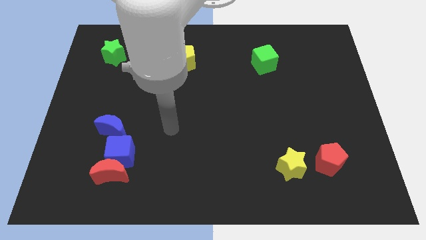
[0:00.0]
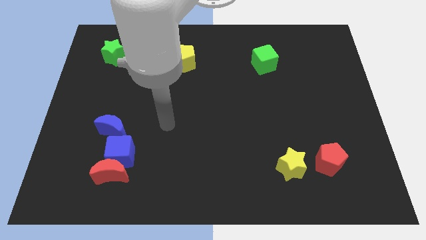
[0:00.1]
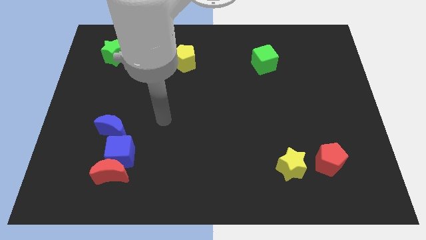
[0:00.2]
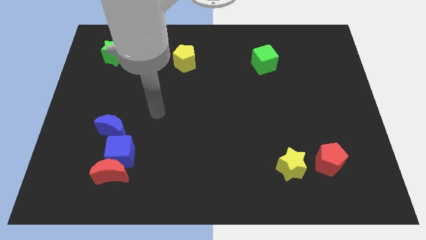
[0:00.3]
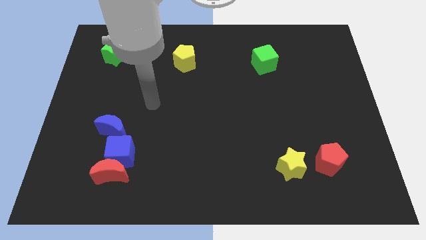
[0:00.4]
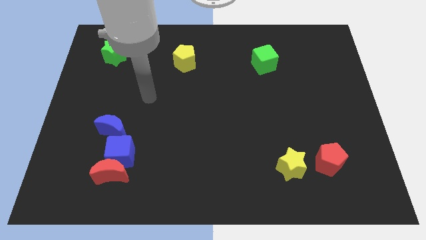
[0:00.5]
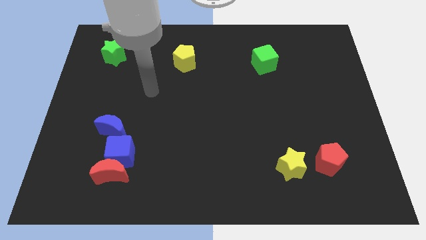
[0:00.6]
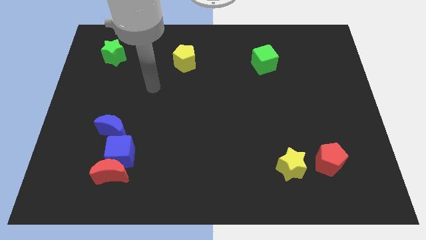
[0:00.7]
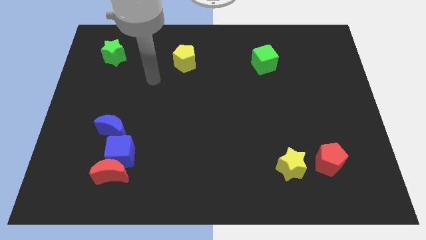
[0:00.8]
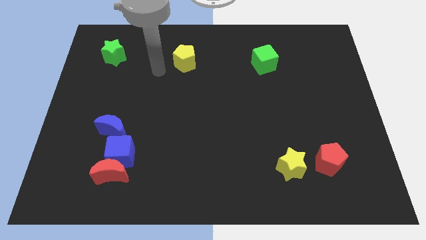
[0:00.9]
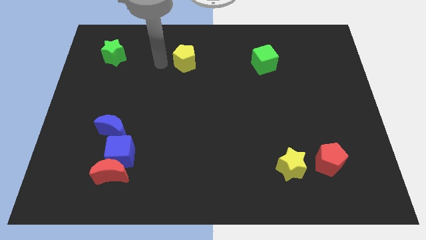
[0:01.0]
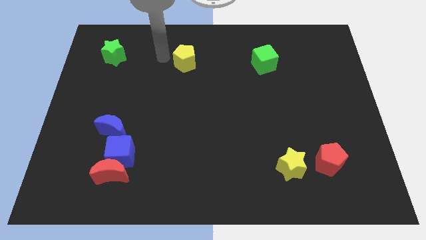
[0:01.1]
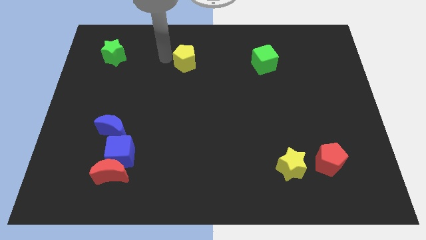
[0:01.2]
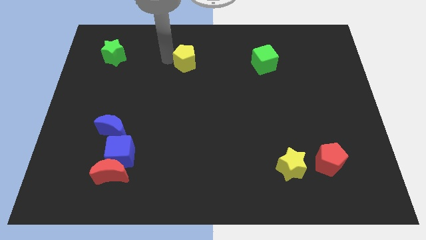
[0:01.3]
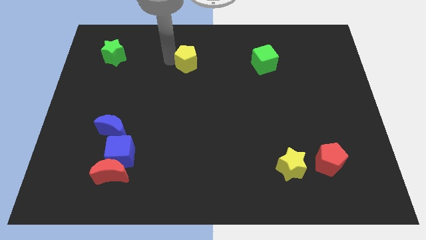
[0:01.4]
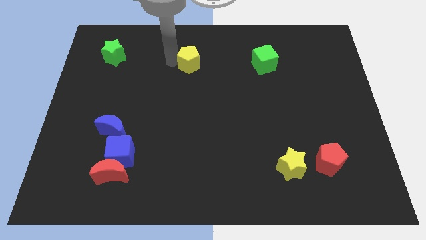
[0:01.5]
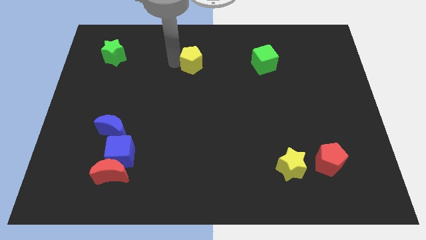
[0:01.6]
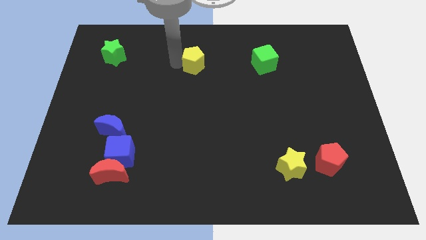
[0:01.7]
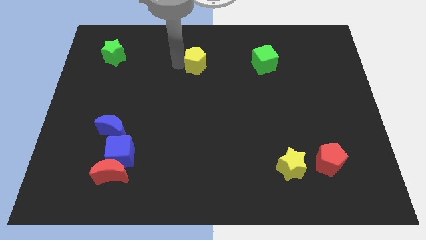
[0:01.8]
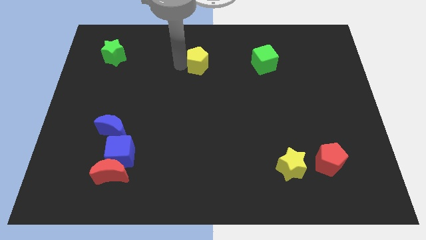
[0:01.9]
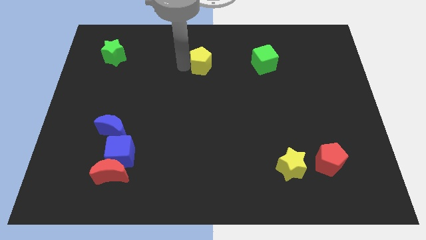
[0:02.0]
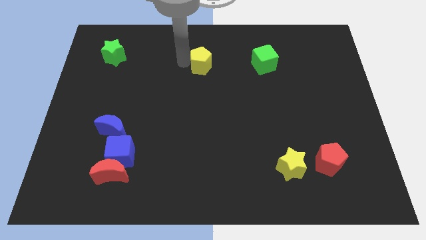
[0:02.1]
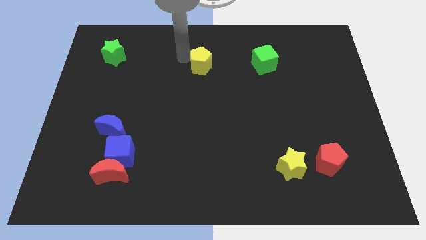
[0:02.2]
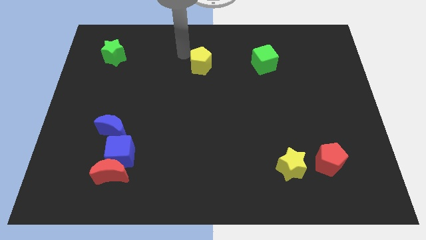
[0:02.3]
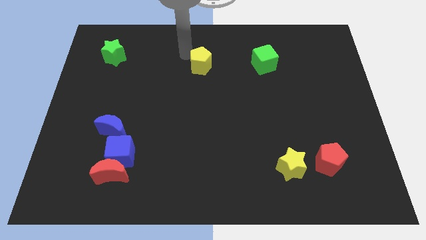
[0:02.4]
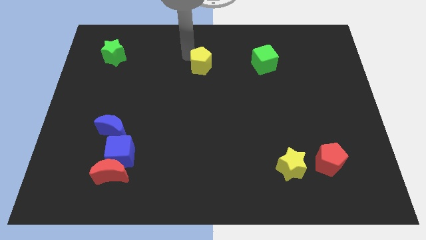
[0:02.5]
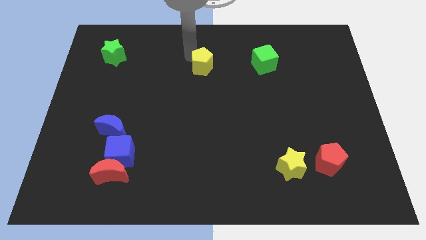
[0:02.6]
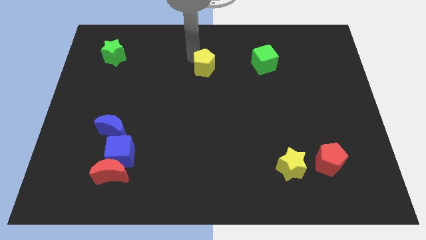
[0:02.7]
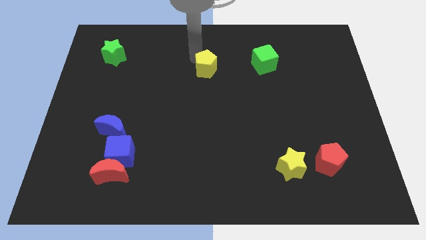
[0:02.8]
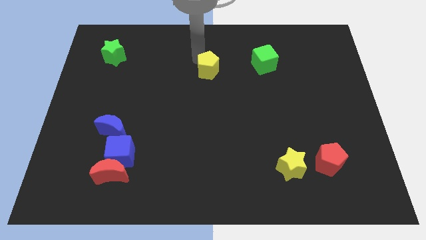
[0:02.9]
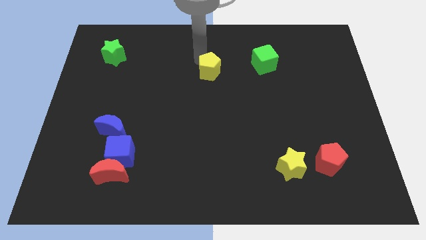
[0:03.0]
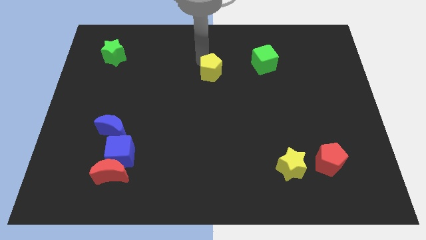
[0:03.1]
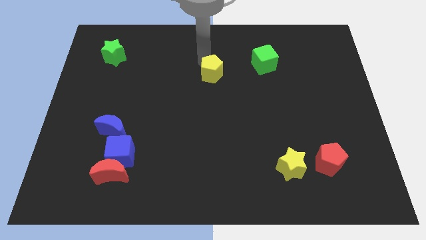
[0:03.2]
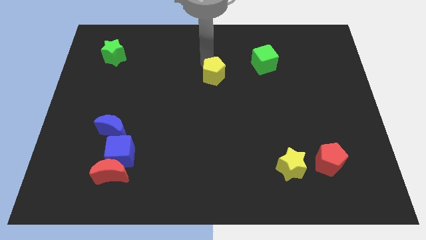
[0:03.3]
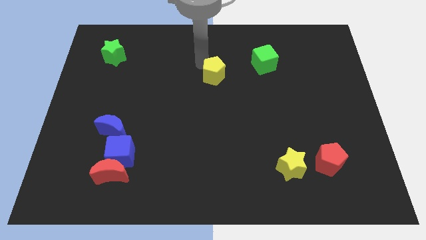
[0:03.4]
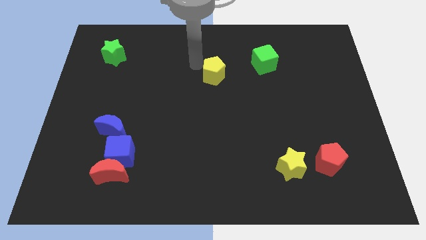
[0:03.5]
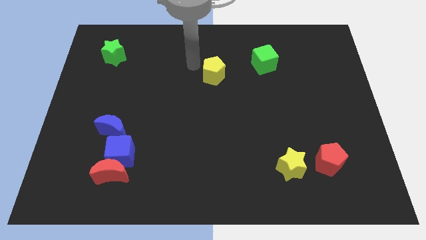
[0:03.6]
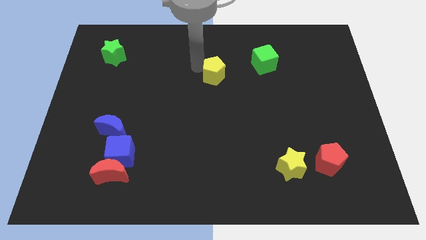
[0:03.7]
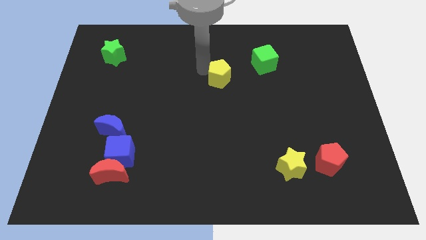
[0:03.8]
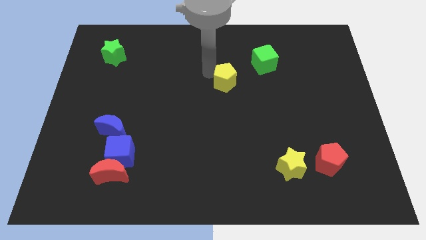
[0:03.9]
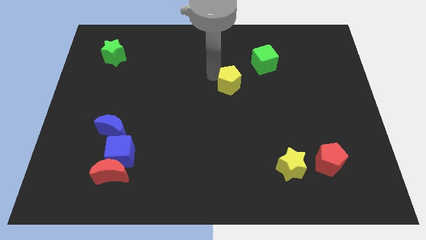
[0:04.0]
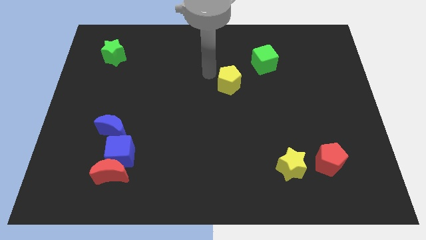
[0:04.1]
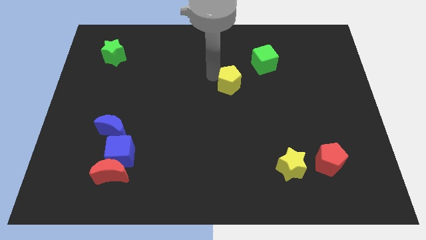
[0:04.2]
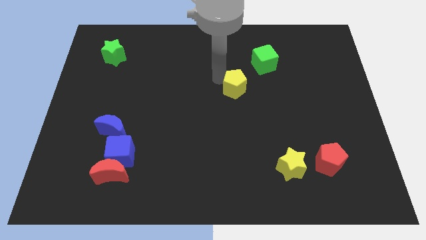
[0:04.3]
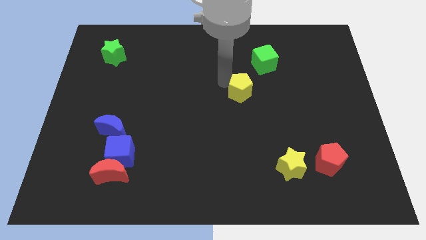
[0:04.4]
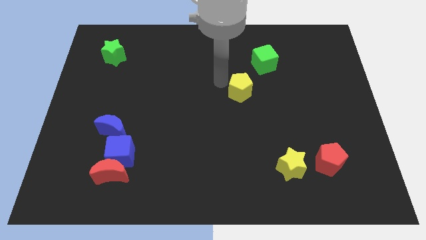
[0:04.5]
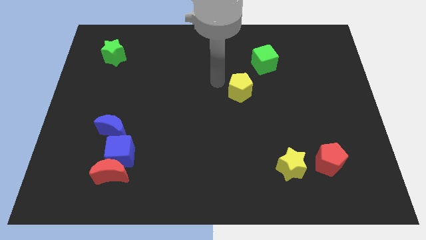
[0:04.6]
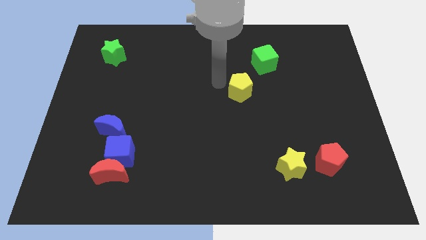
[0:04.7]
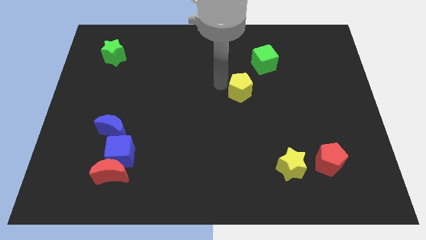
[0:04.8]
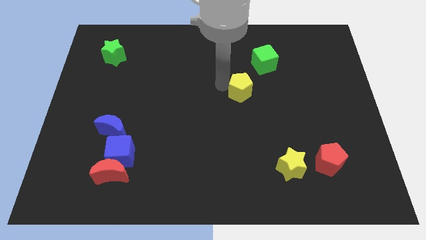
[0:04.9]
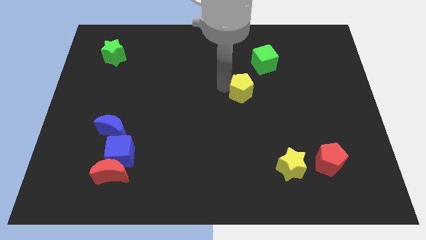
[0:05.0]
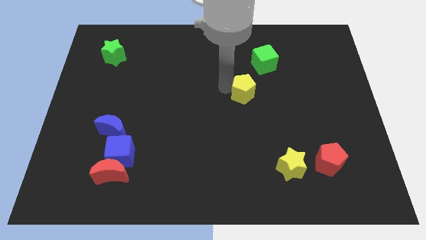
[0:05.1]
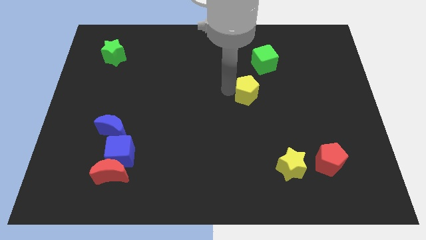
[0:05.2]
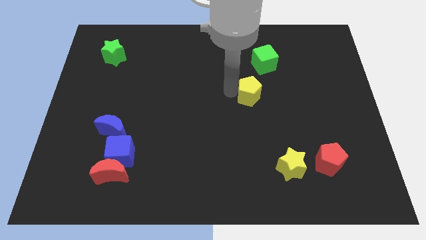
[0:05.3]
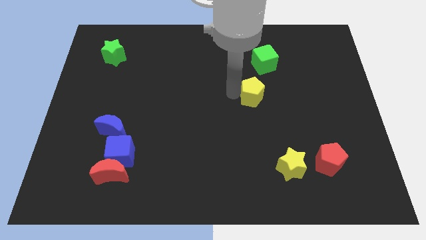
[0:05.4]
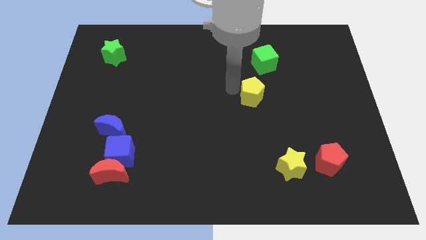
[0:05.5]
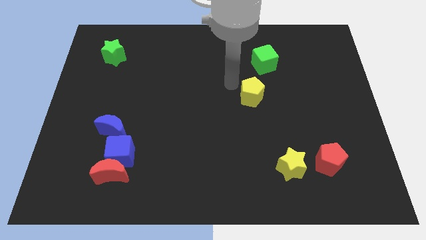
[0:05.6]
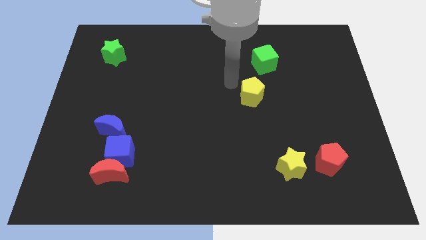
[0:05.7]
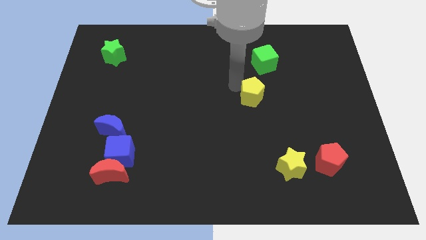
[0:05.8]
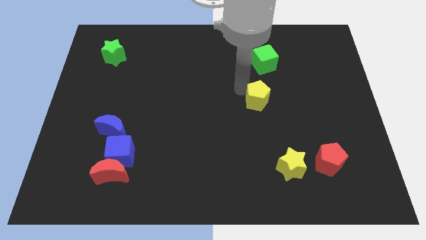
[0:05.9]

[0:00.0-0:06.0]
move the yellow pentagon down and to the right diagonally

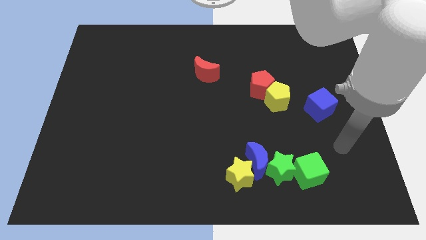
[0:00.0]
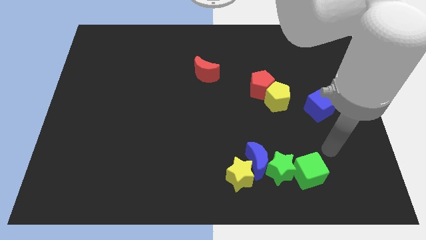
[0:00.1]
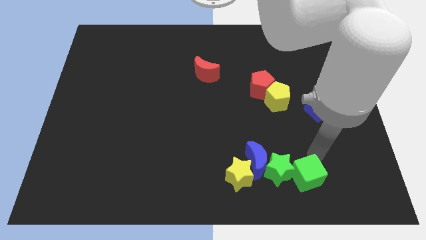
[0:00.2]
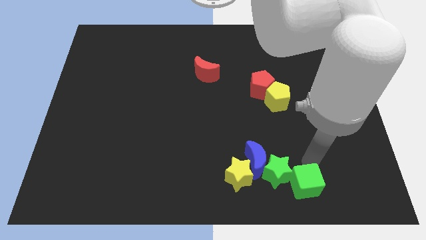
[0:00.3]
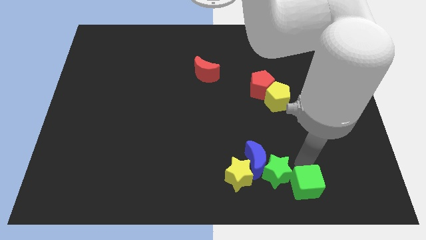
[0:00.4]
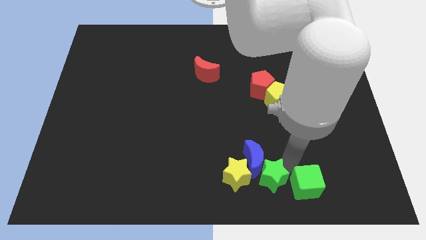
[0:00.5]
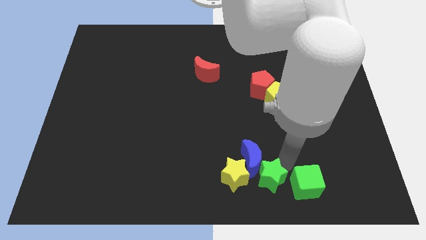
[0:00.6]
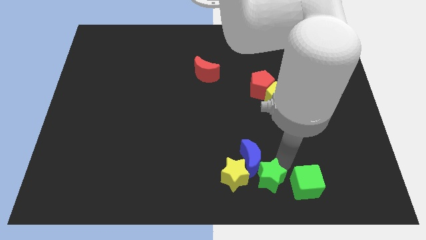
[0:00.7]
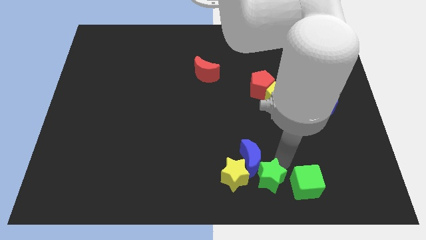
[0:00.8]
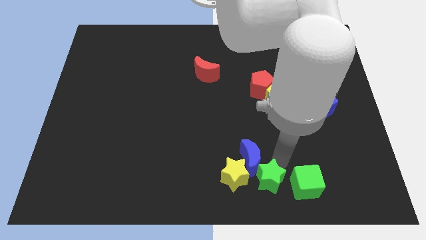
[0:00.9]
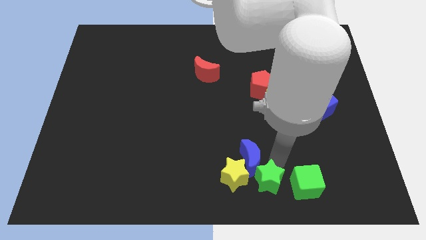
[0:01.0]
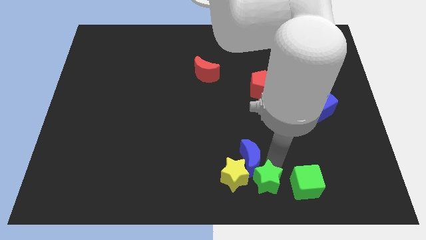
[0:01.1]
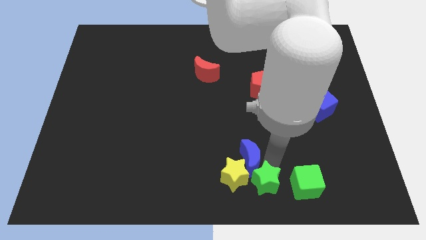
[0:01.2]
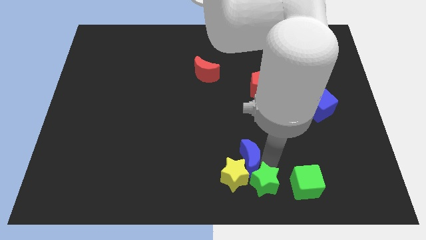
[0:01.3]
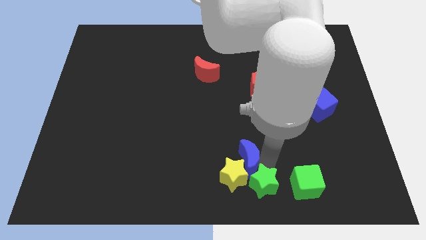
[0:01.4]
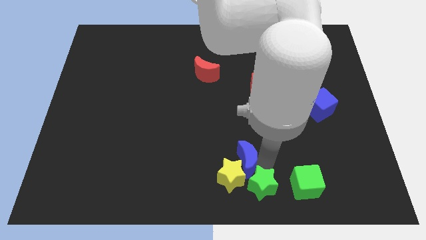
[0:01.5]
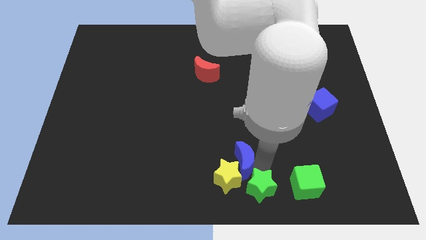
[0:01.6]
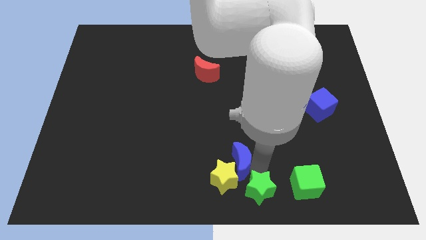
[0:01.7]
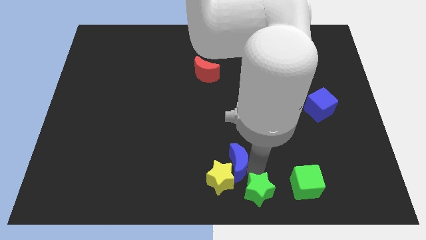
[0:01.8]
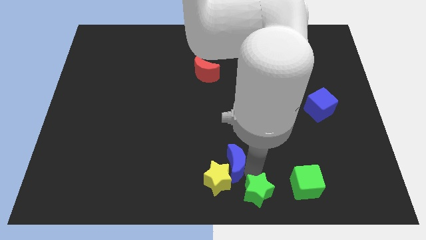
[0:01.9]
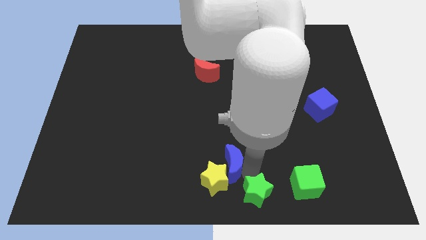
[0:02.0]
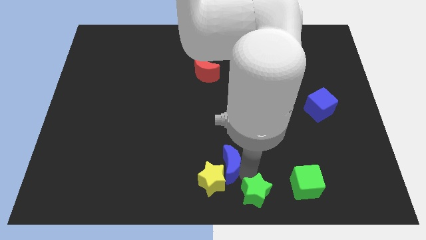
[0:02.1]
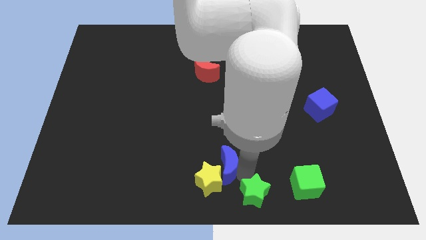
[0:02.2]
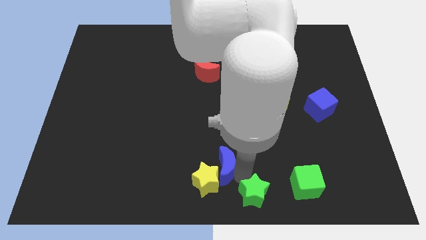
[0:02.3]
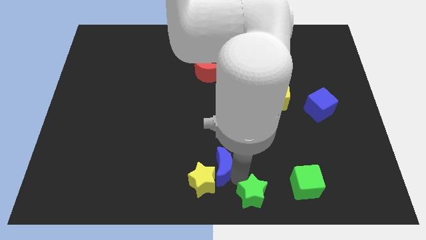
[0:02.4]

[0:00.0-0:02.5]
slightly slide the blue moon left
